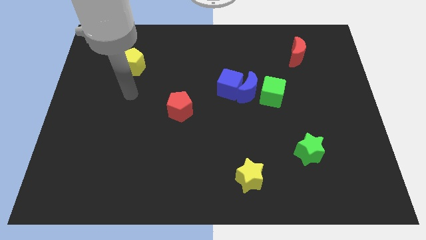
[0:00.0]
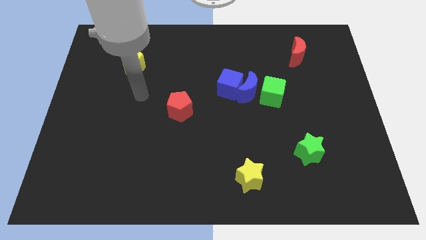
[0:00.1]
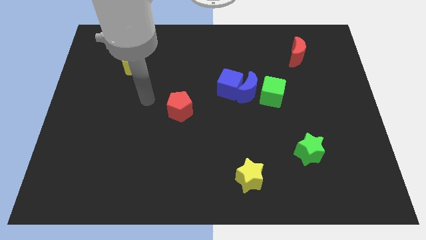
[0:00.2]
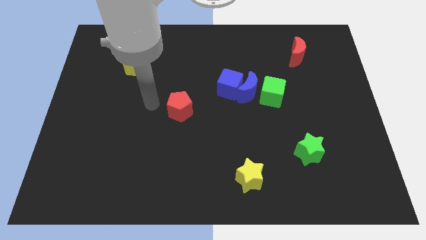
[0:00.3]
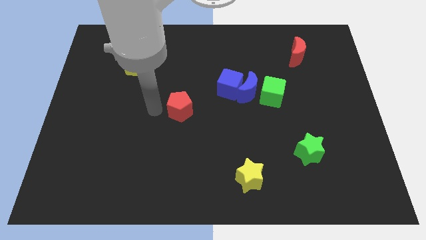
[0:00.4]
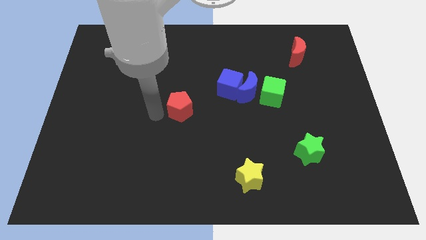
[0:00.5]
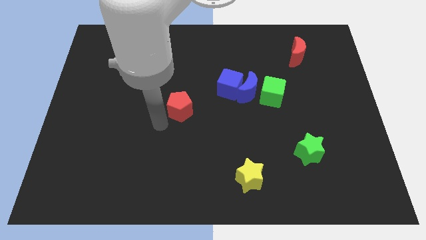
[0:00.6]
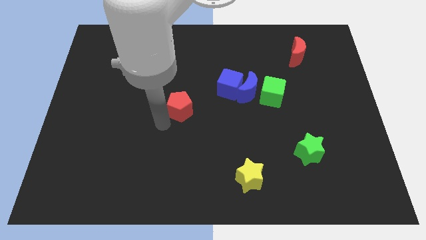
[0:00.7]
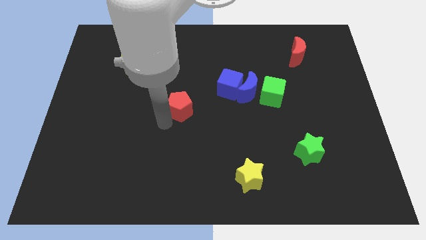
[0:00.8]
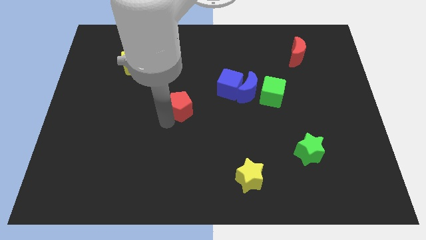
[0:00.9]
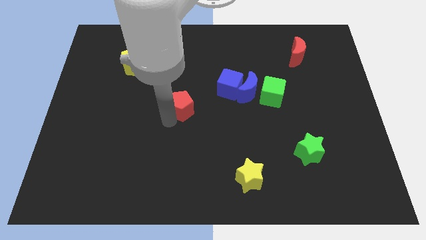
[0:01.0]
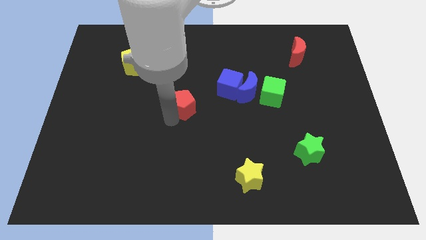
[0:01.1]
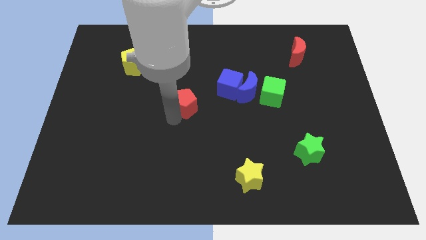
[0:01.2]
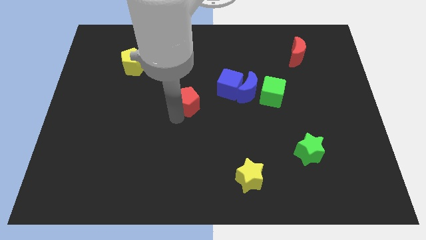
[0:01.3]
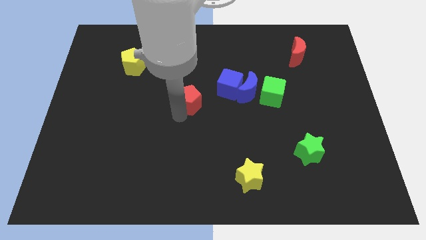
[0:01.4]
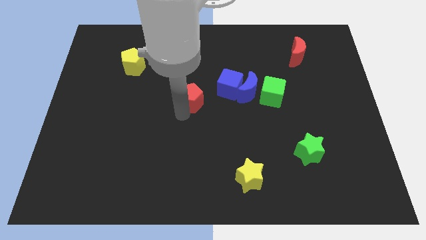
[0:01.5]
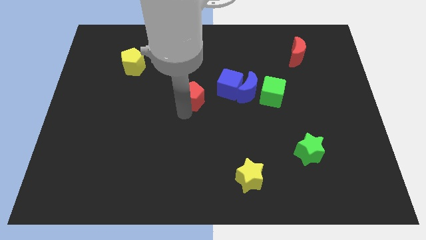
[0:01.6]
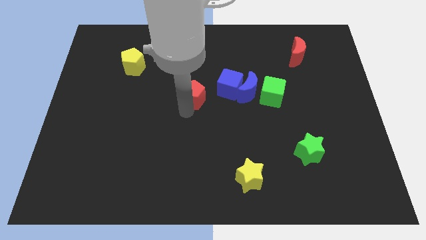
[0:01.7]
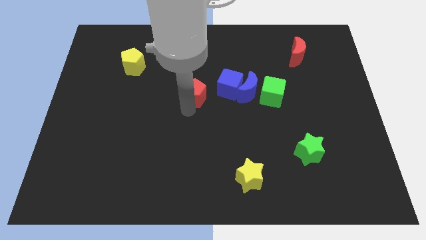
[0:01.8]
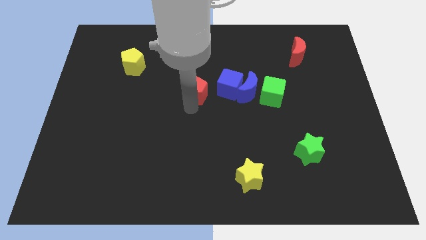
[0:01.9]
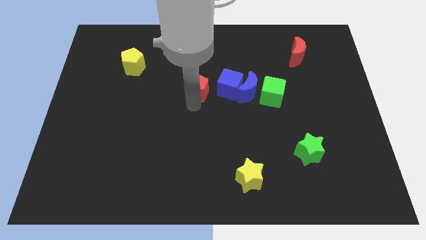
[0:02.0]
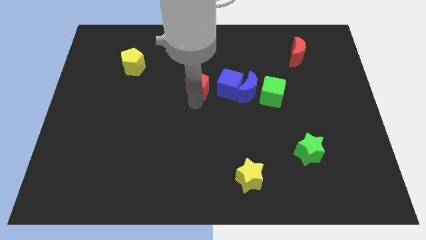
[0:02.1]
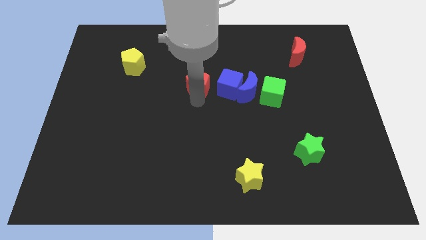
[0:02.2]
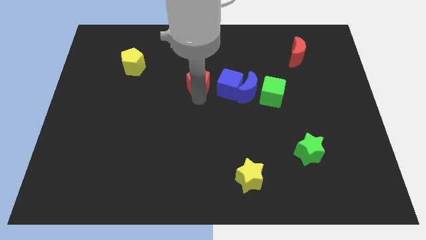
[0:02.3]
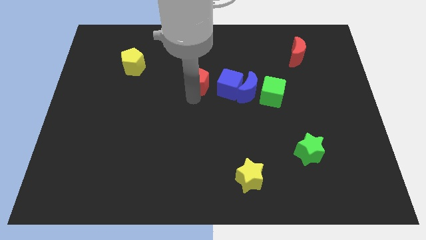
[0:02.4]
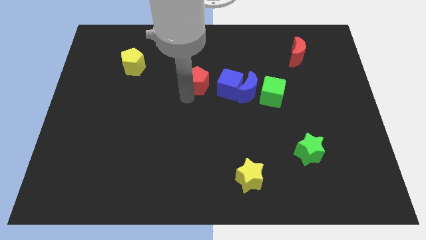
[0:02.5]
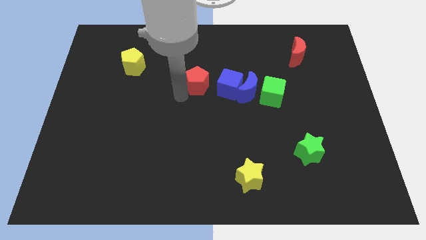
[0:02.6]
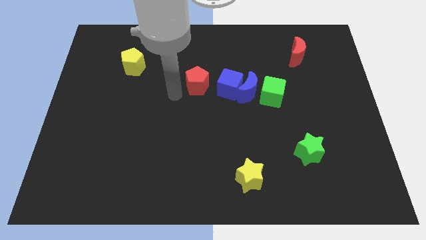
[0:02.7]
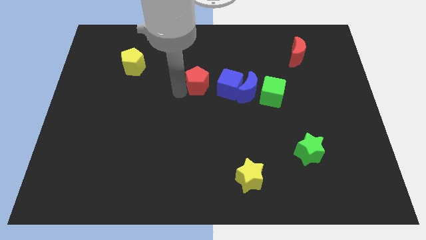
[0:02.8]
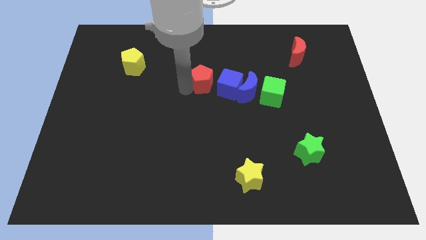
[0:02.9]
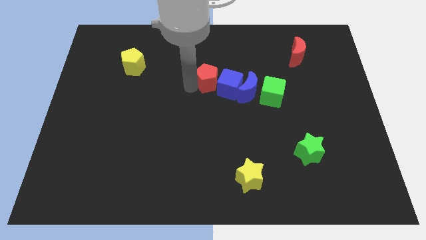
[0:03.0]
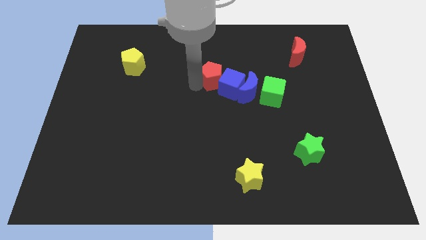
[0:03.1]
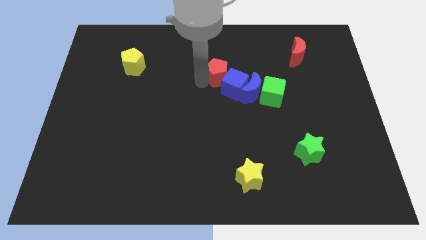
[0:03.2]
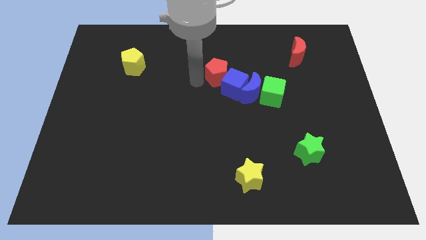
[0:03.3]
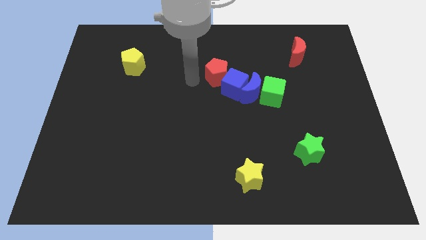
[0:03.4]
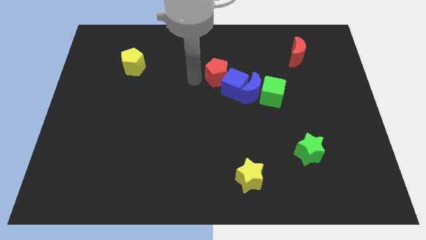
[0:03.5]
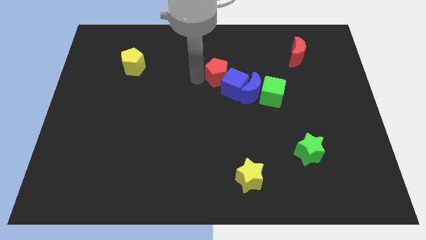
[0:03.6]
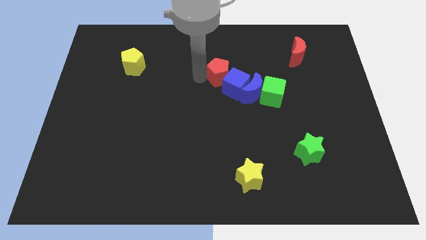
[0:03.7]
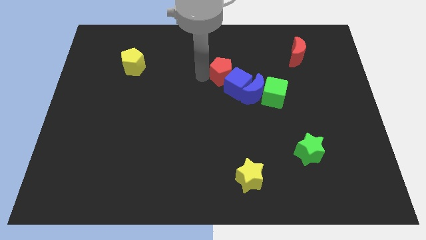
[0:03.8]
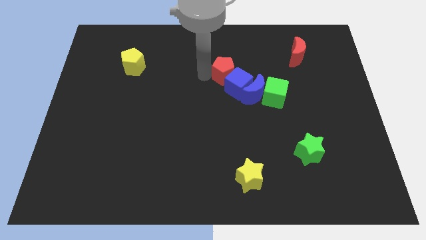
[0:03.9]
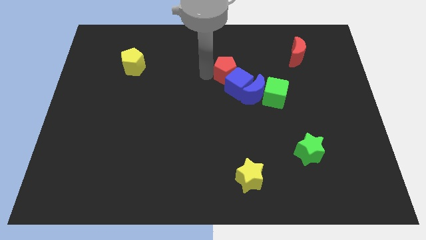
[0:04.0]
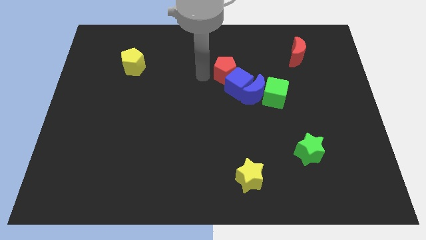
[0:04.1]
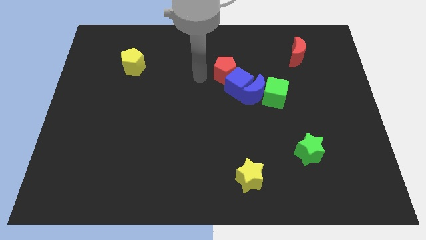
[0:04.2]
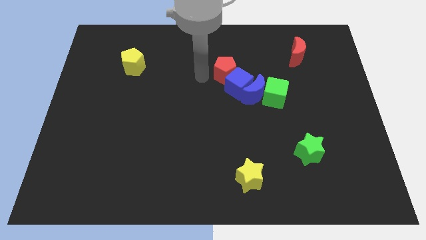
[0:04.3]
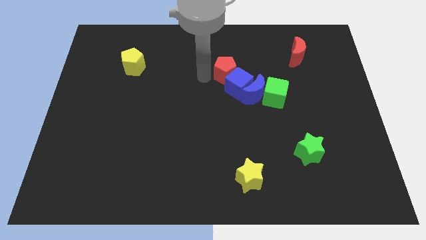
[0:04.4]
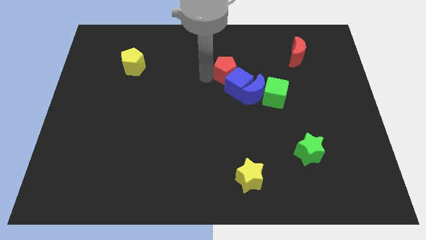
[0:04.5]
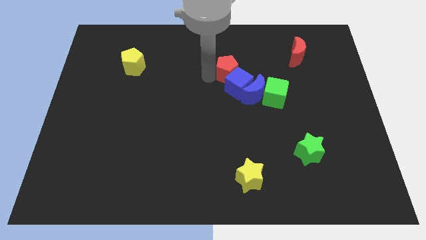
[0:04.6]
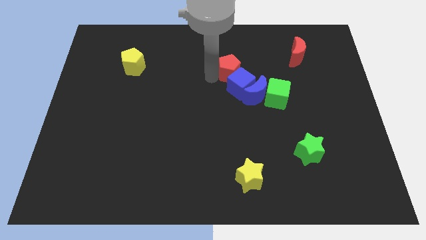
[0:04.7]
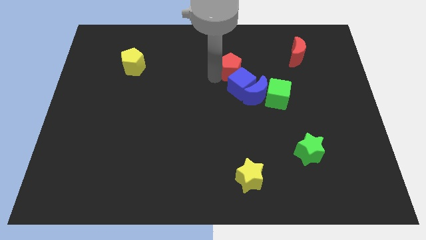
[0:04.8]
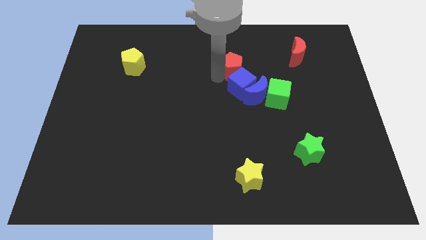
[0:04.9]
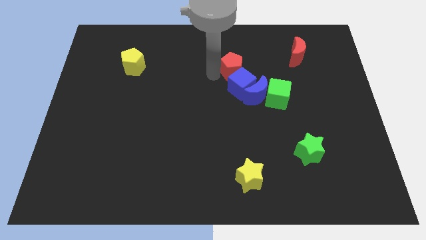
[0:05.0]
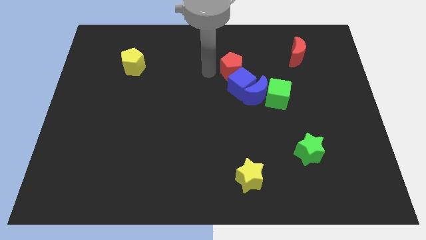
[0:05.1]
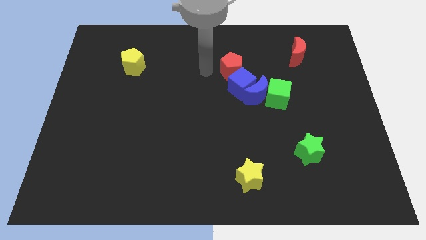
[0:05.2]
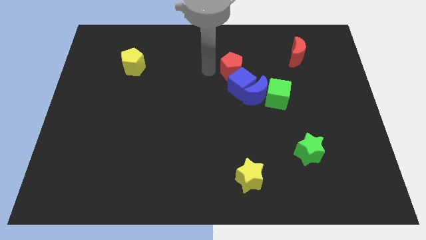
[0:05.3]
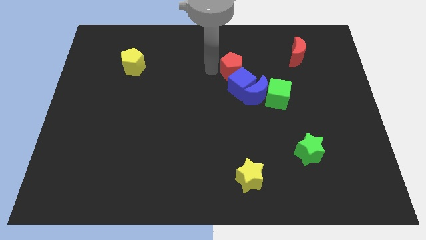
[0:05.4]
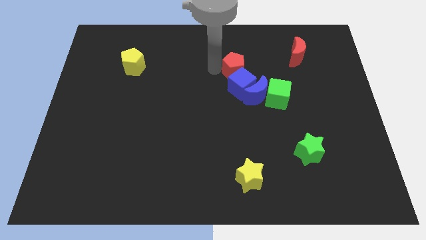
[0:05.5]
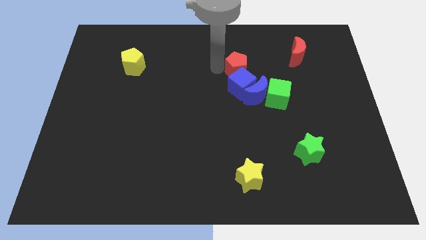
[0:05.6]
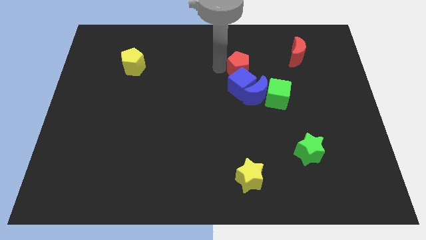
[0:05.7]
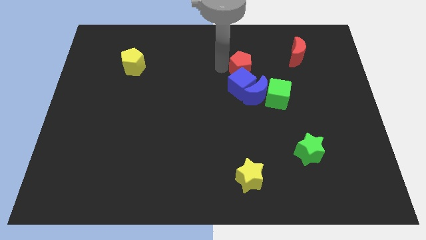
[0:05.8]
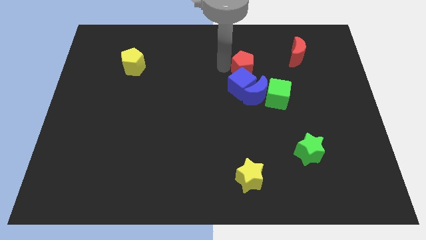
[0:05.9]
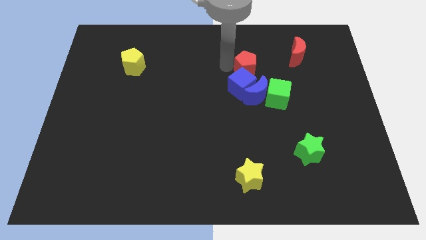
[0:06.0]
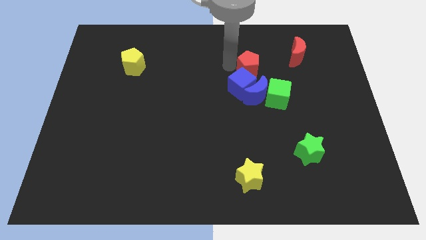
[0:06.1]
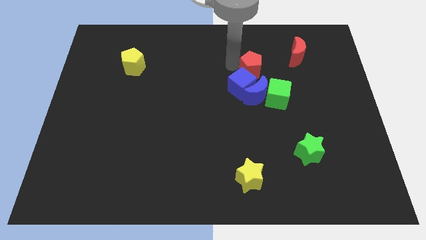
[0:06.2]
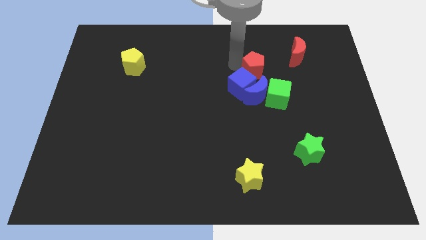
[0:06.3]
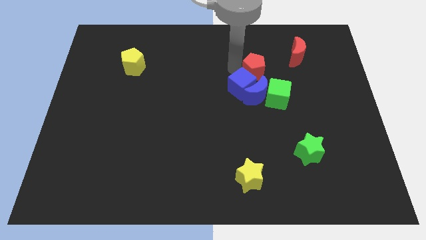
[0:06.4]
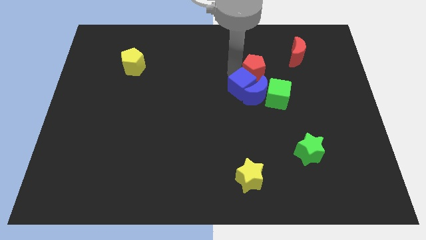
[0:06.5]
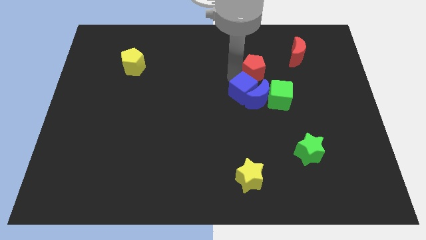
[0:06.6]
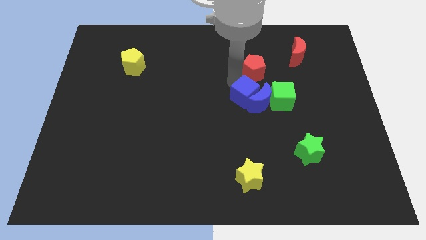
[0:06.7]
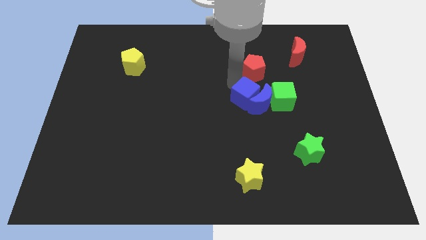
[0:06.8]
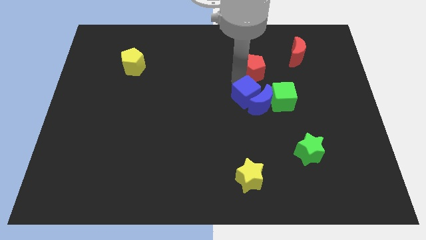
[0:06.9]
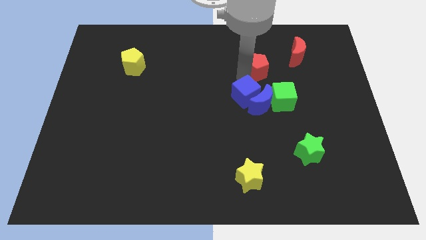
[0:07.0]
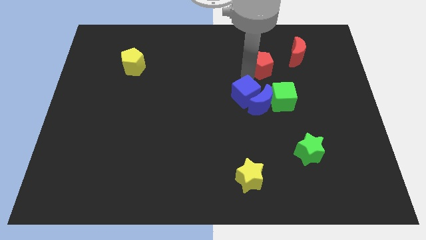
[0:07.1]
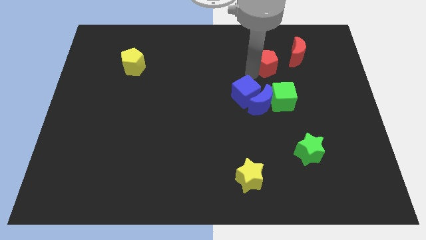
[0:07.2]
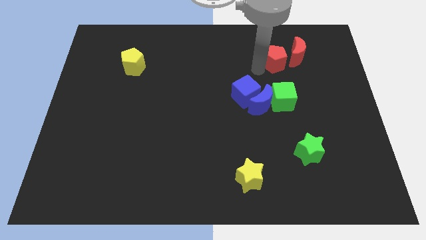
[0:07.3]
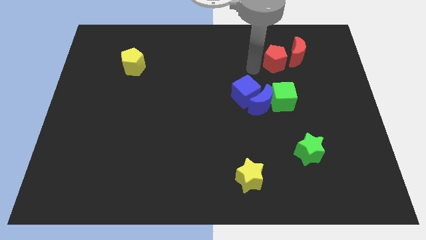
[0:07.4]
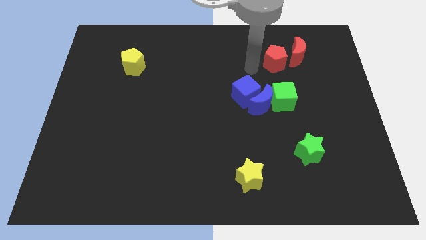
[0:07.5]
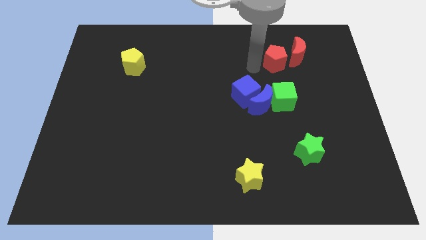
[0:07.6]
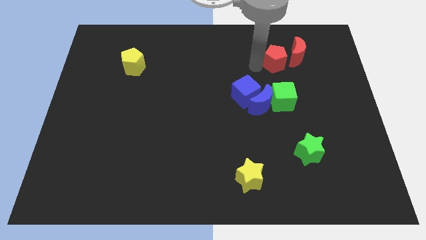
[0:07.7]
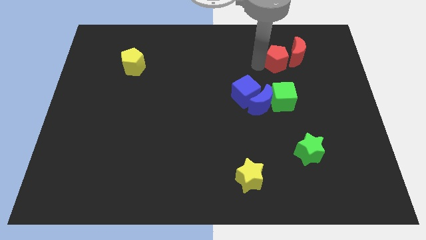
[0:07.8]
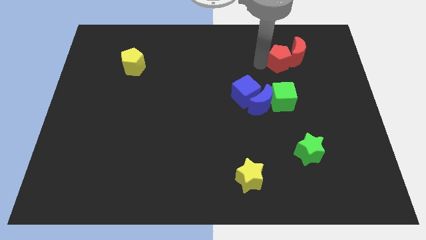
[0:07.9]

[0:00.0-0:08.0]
move the red pentagon towards the red moon
